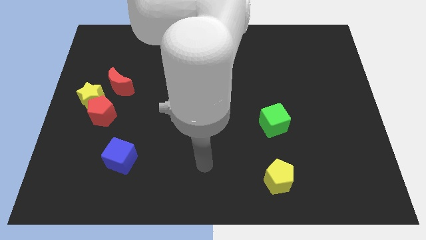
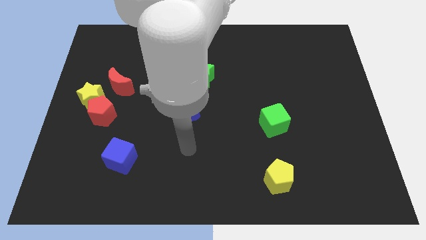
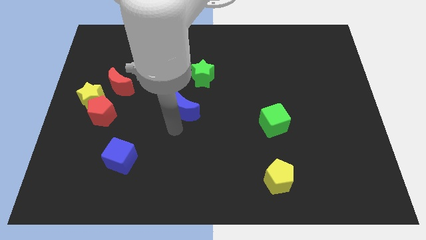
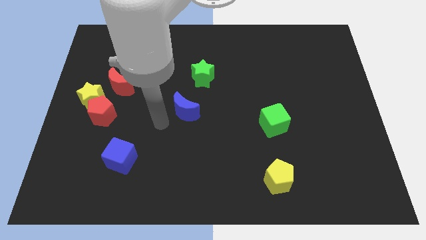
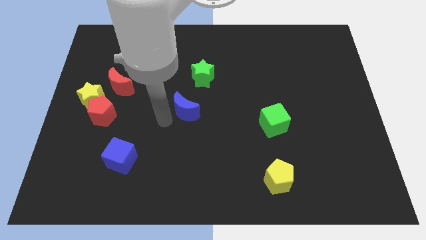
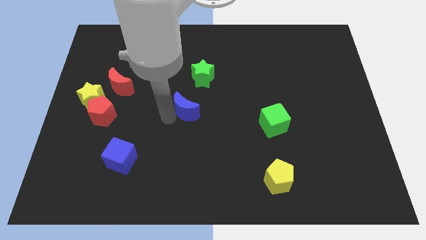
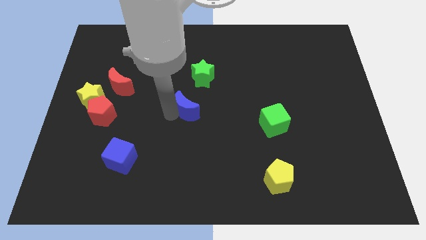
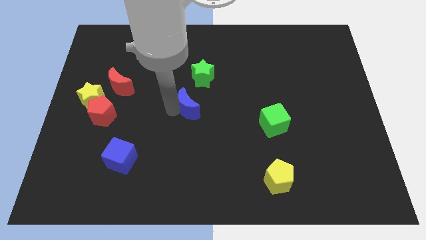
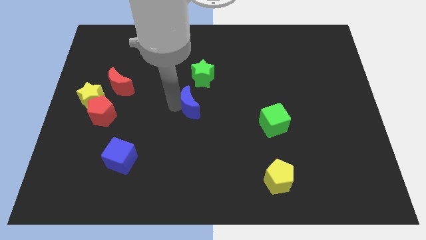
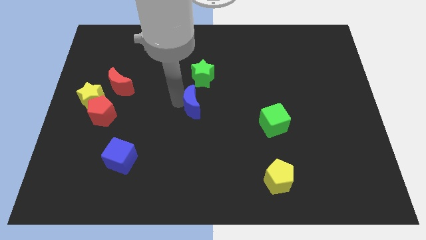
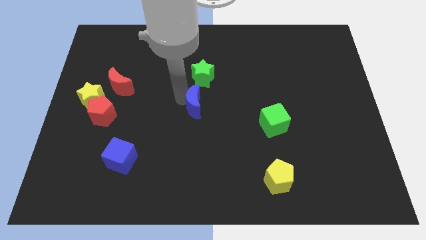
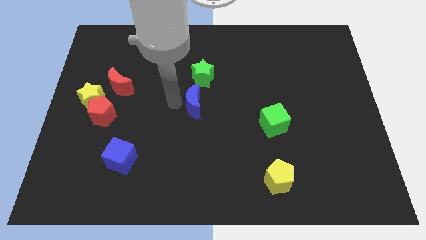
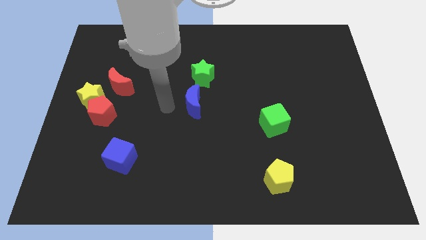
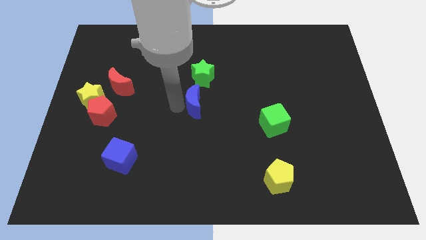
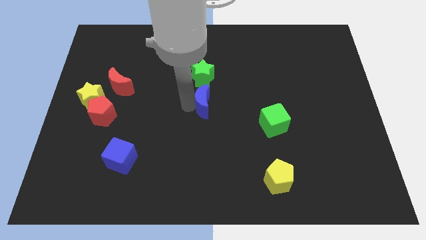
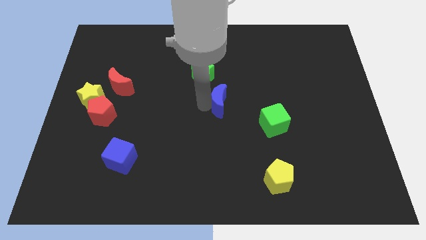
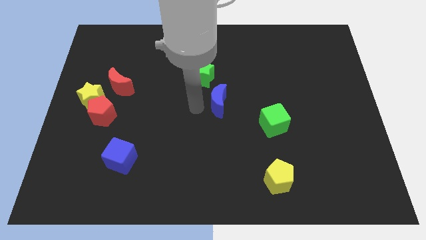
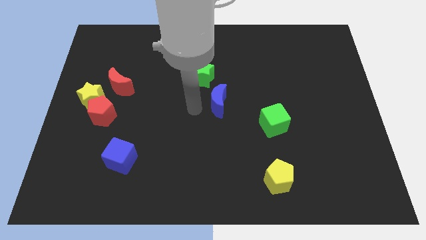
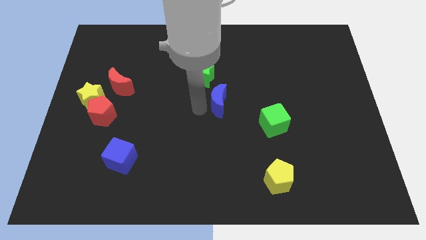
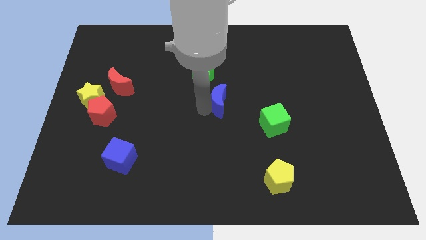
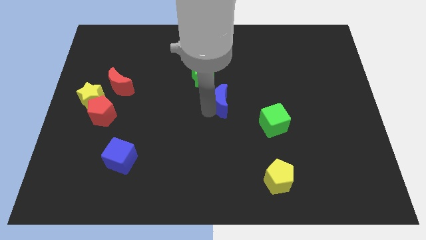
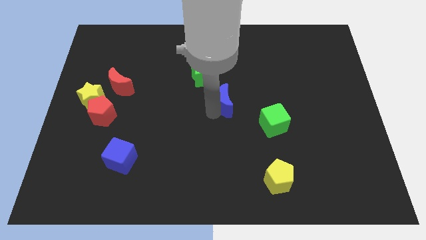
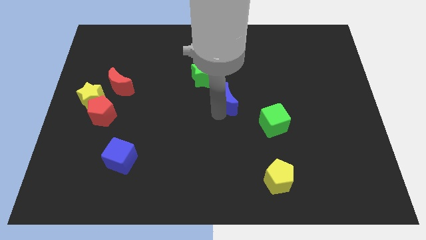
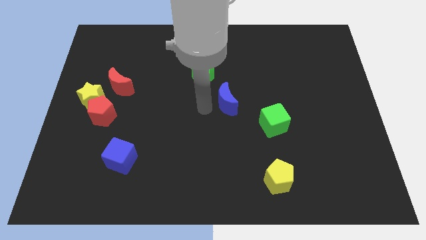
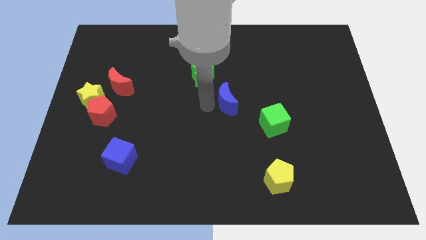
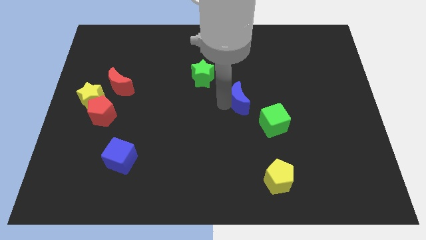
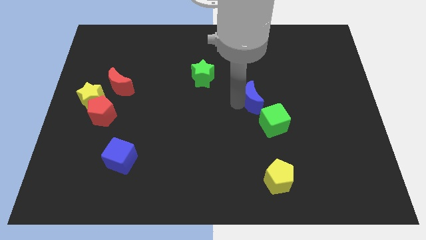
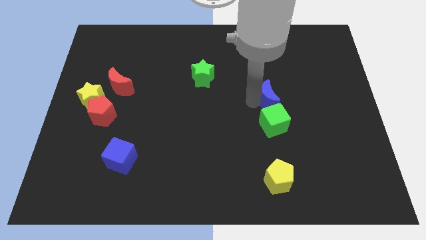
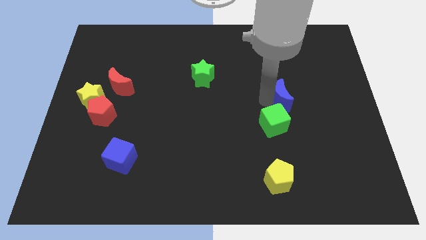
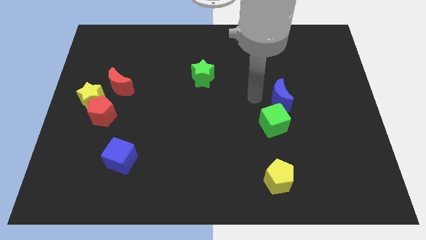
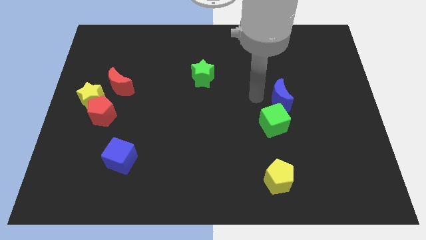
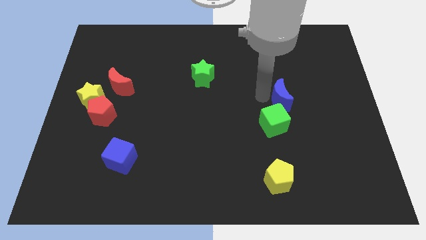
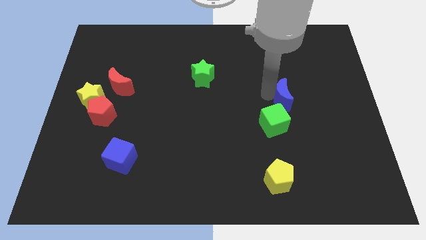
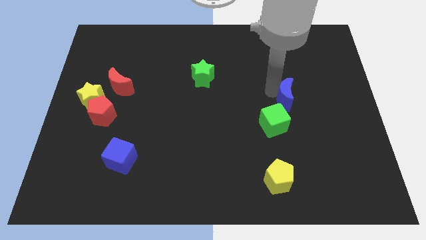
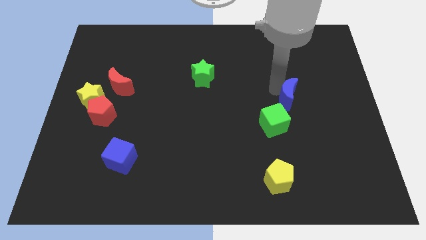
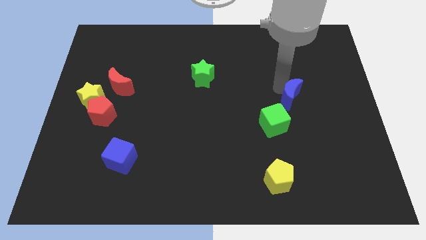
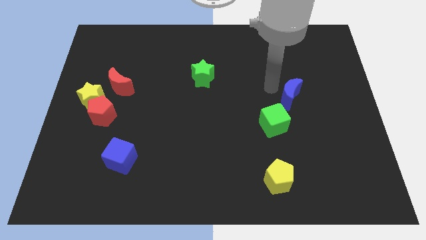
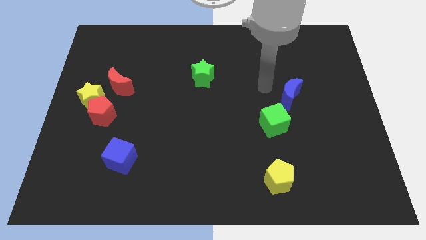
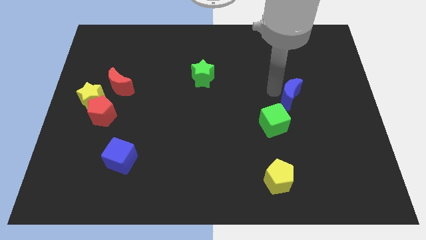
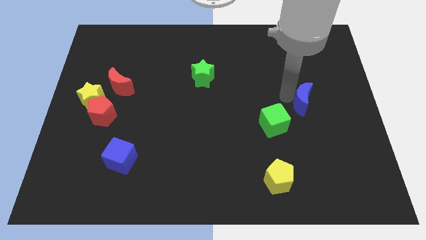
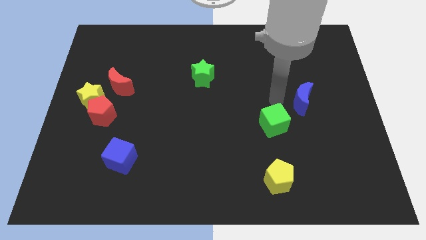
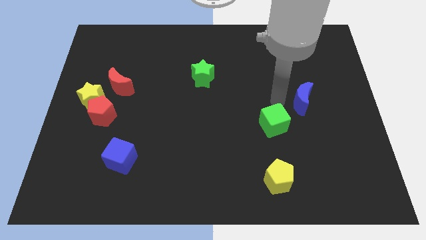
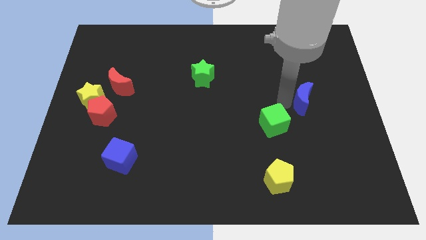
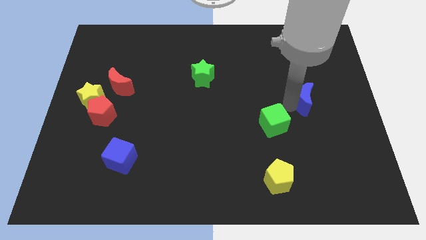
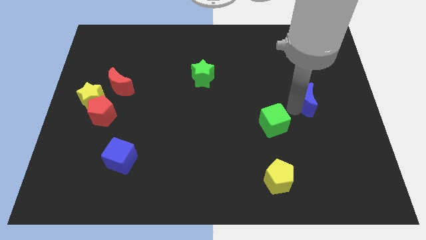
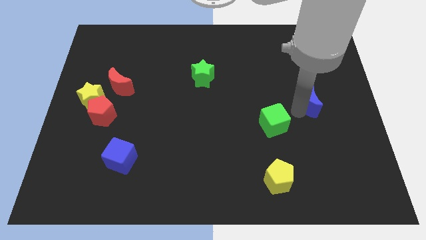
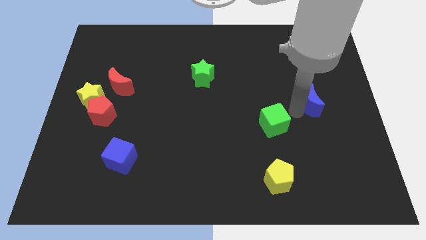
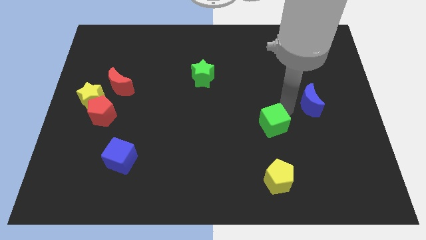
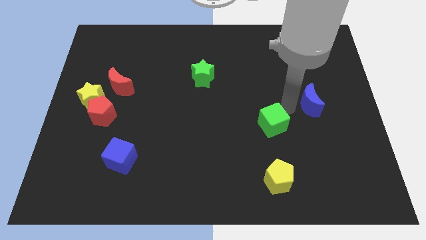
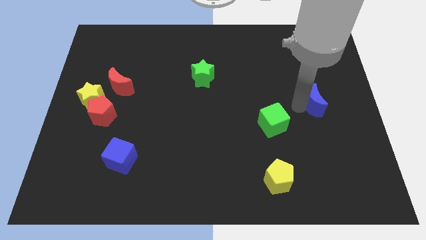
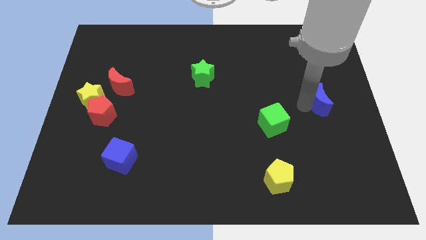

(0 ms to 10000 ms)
put the blue moon to the right side of the board

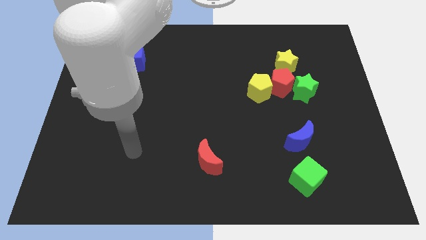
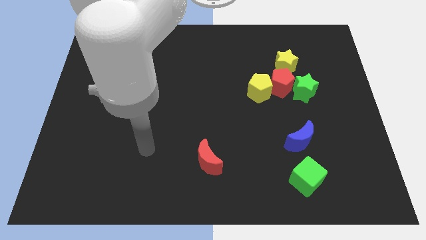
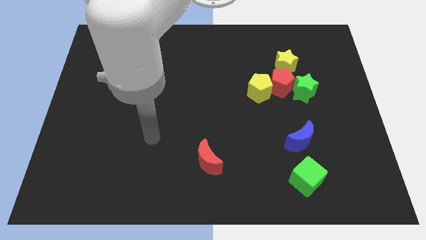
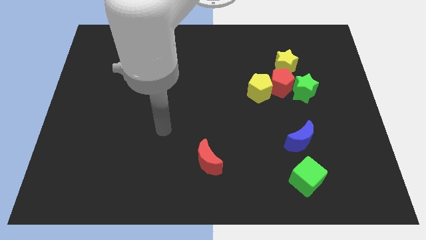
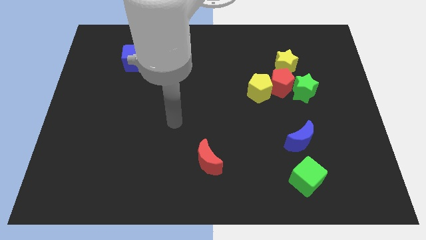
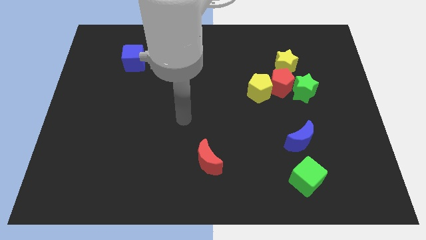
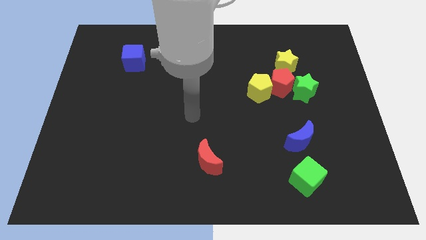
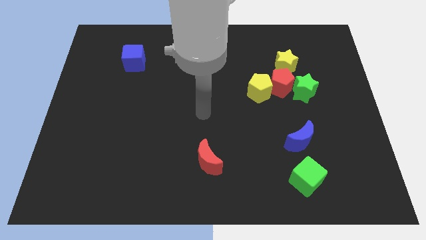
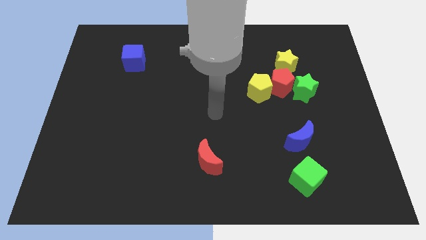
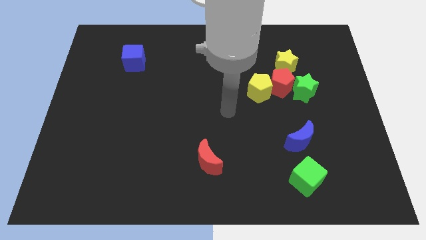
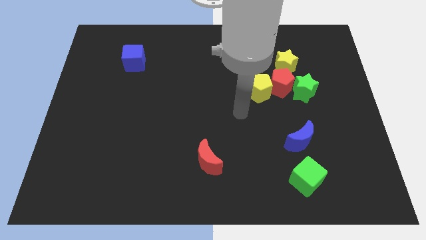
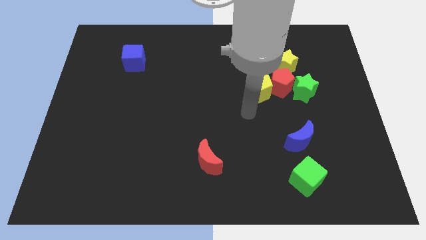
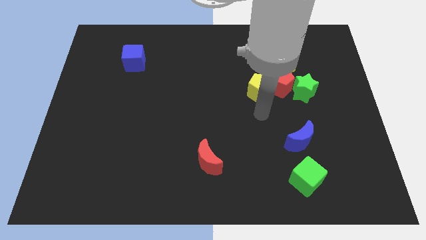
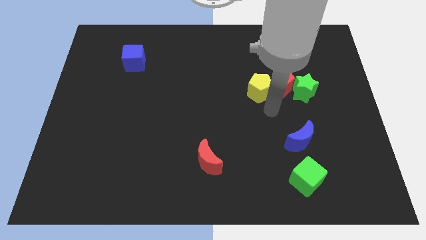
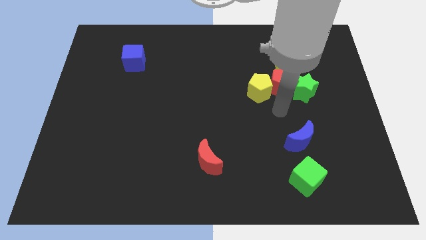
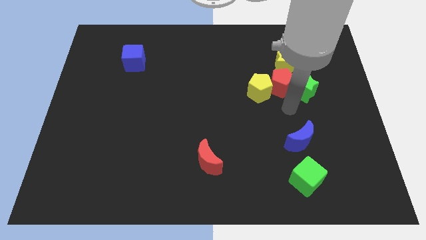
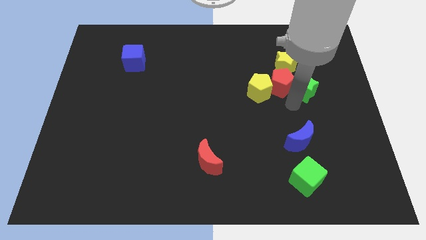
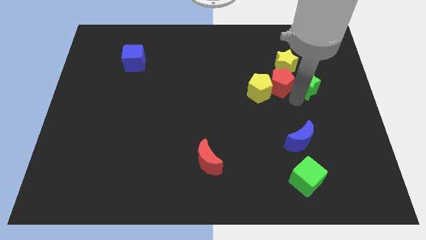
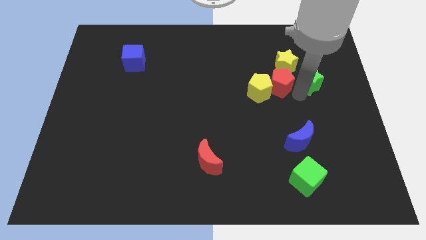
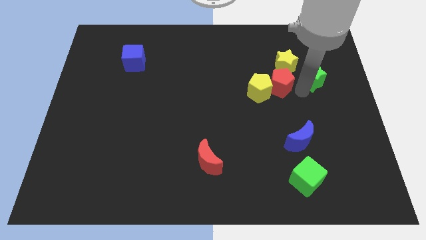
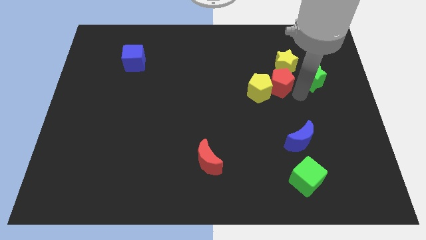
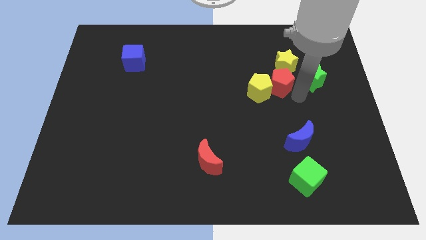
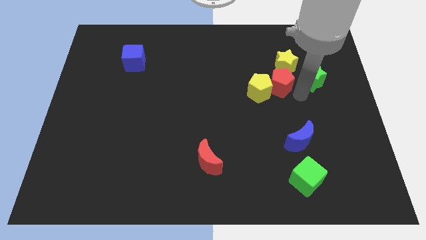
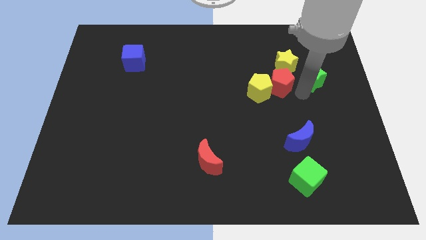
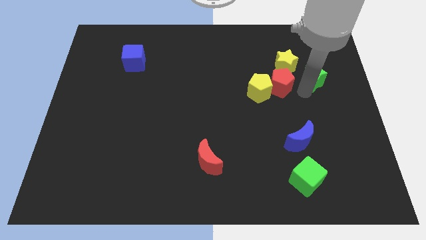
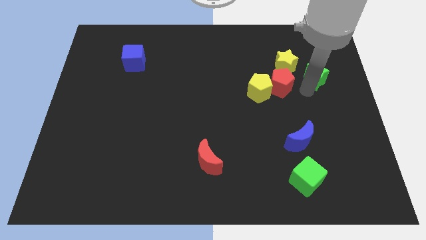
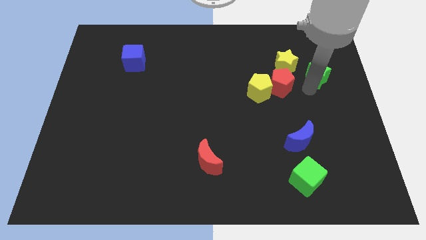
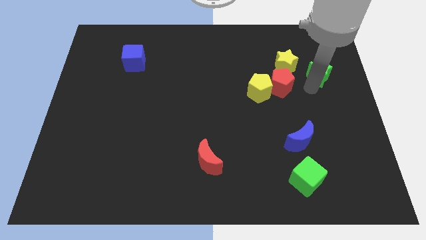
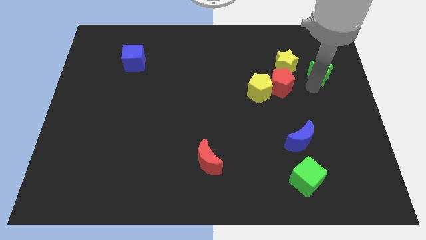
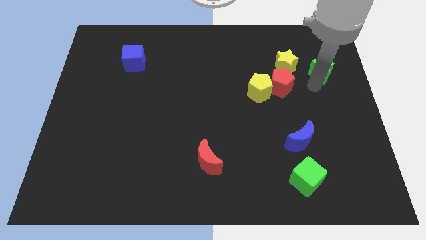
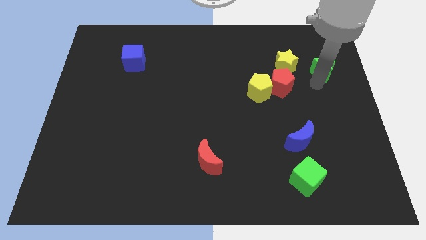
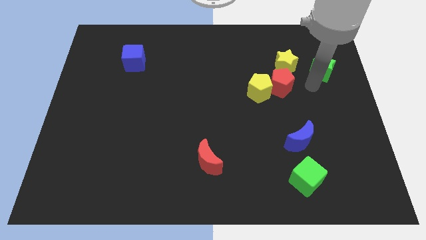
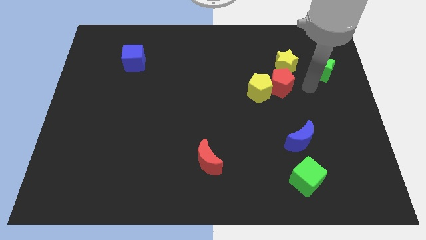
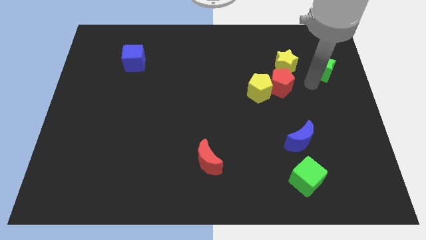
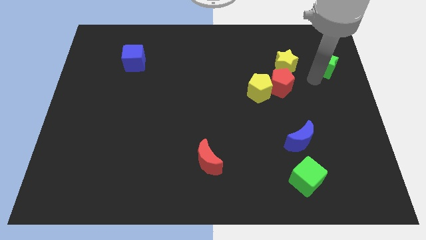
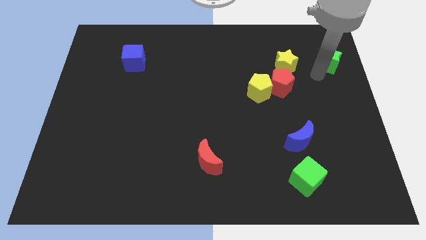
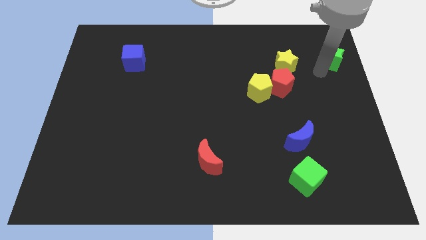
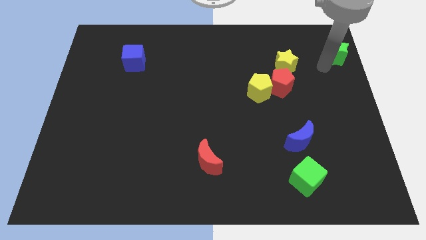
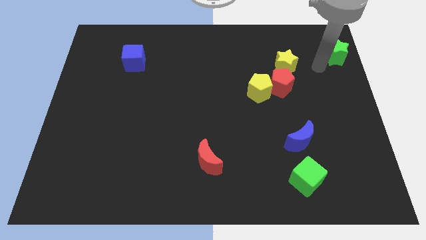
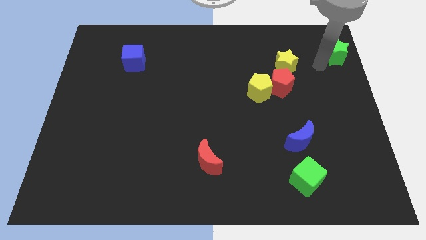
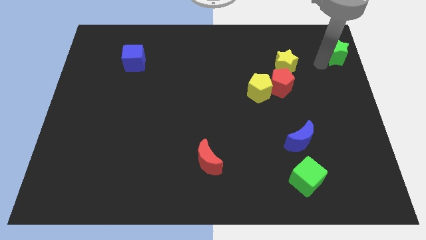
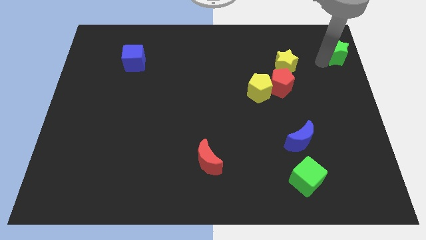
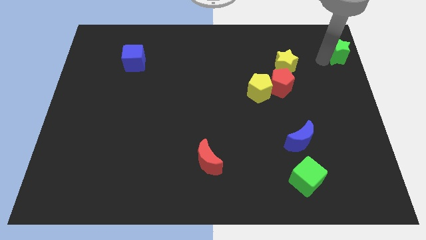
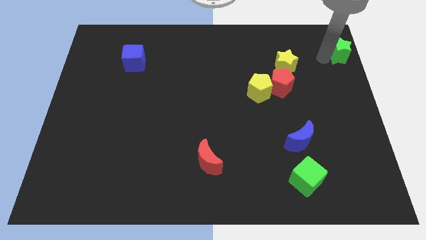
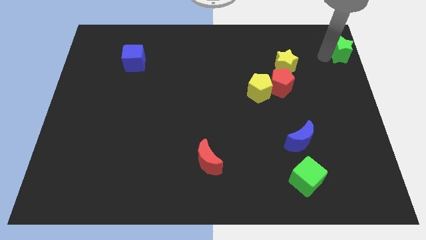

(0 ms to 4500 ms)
put the green star to the top right corner
